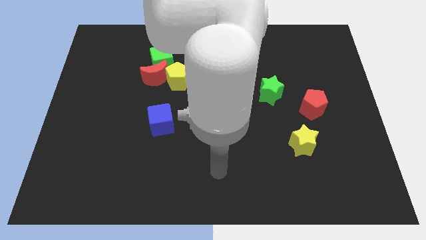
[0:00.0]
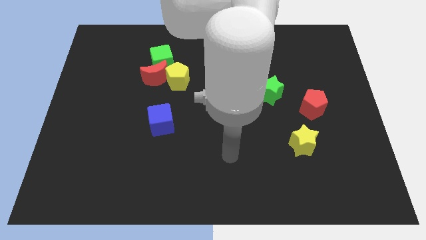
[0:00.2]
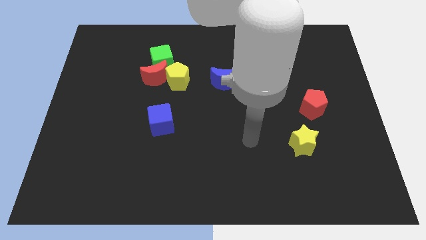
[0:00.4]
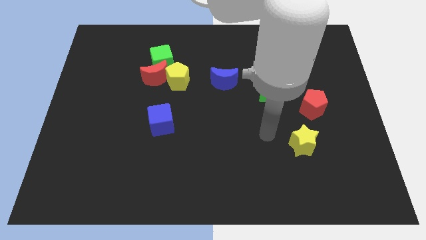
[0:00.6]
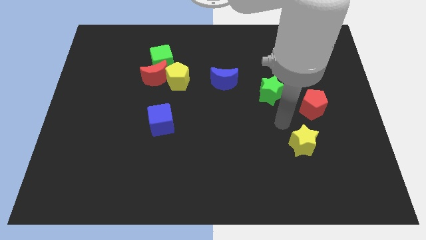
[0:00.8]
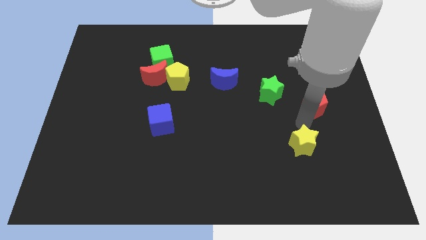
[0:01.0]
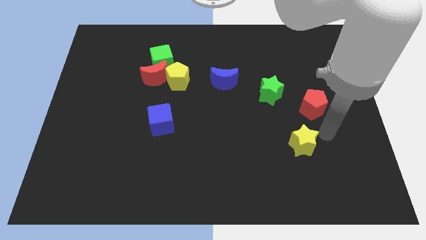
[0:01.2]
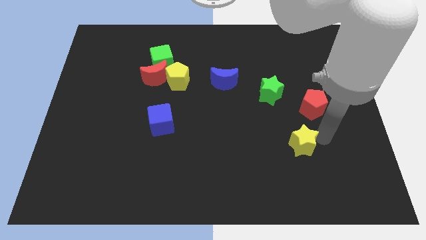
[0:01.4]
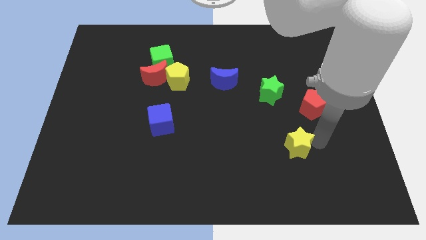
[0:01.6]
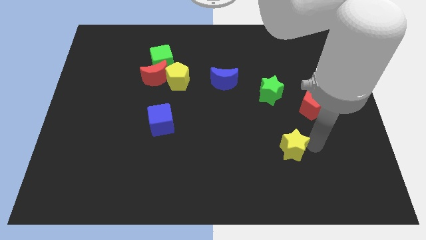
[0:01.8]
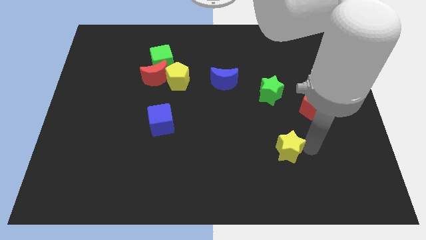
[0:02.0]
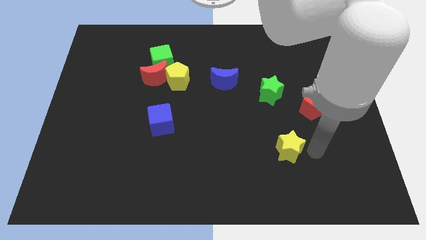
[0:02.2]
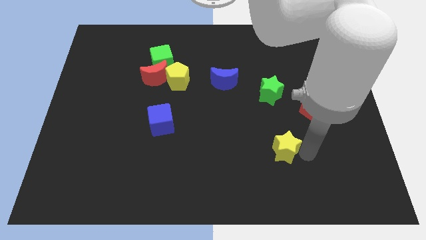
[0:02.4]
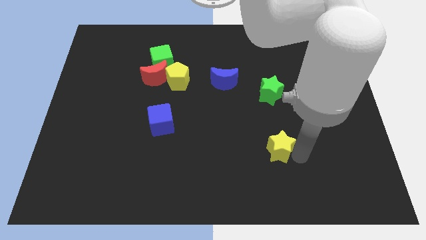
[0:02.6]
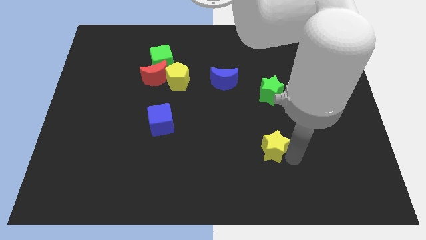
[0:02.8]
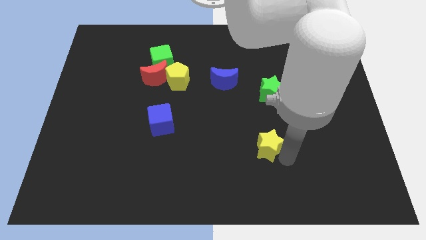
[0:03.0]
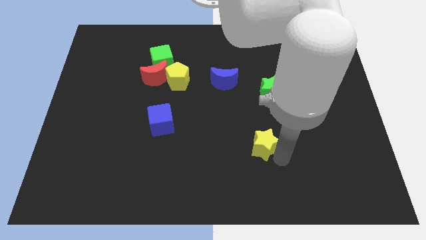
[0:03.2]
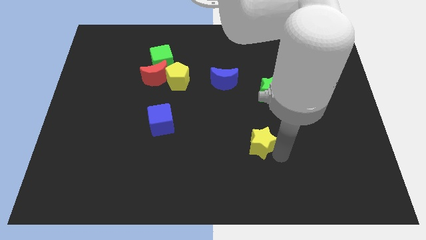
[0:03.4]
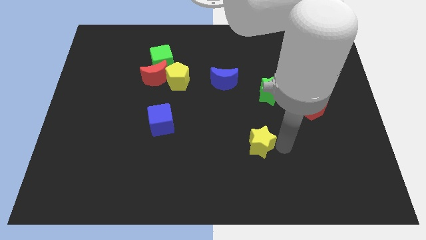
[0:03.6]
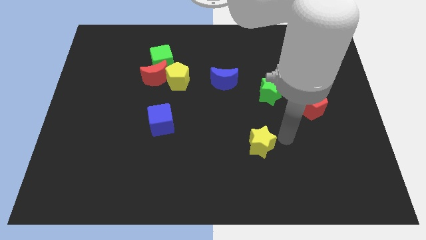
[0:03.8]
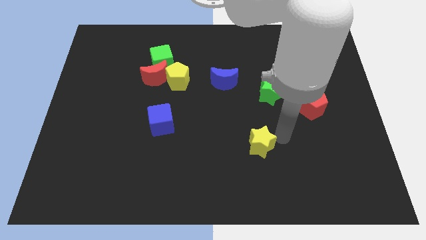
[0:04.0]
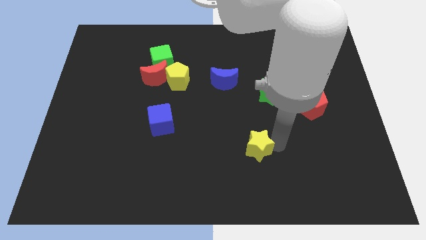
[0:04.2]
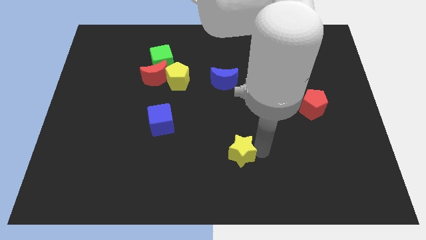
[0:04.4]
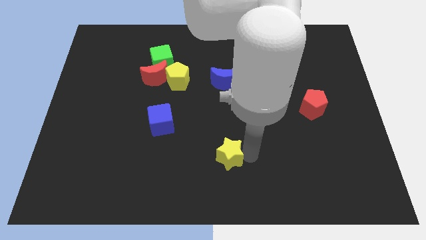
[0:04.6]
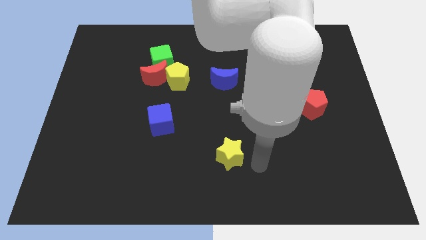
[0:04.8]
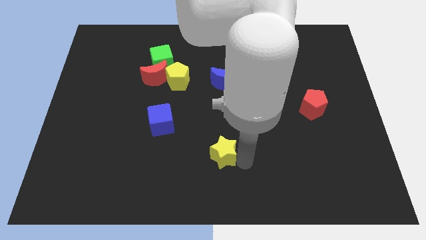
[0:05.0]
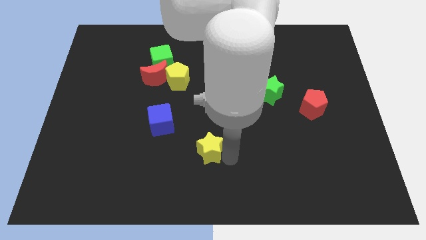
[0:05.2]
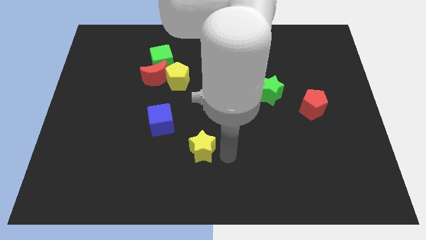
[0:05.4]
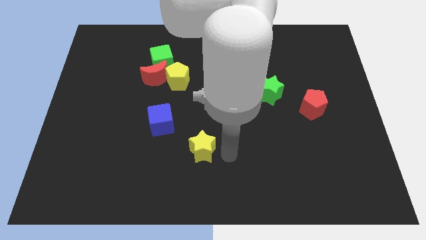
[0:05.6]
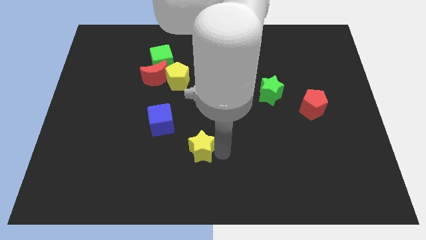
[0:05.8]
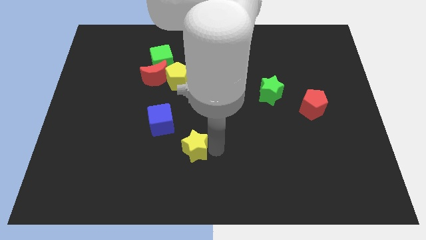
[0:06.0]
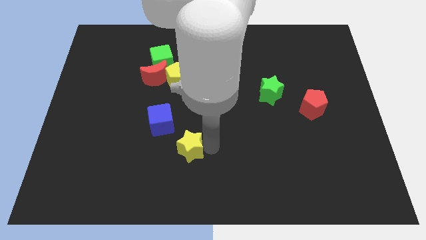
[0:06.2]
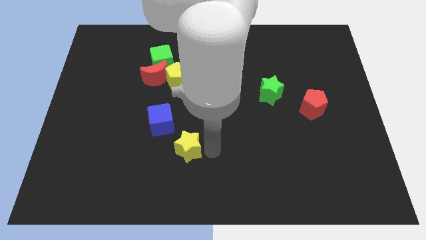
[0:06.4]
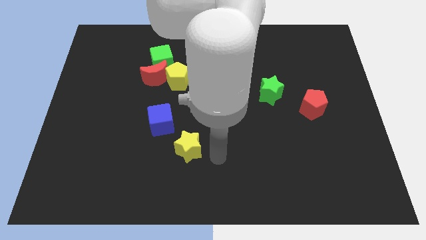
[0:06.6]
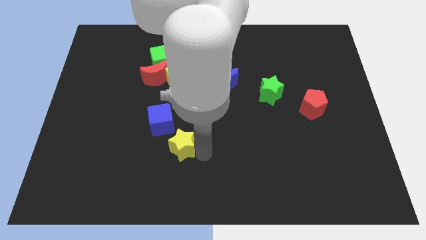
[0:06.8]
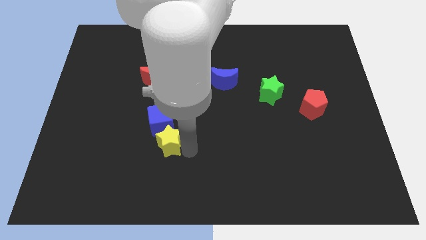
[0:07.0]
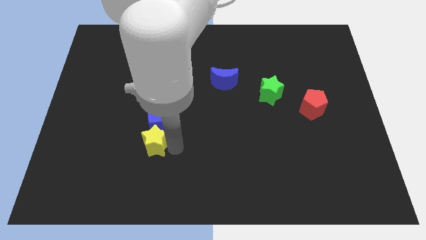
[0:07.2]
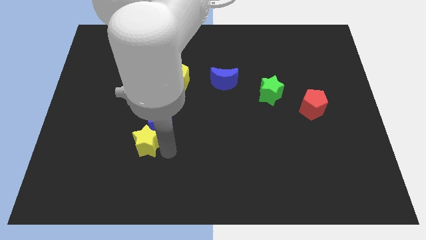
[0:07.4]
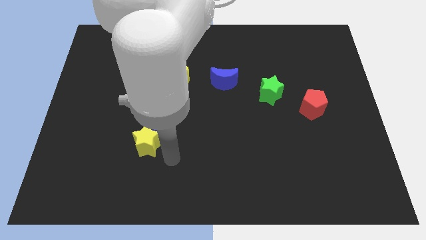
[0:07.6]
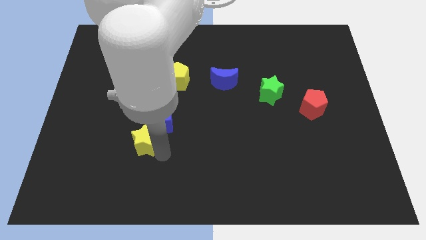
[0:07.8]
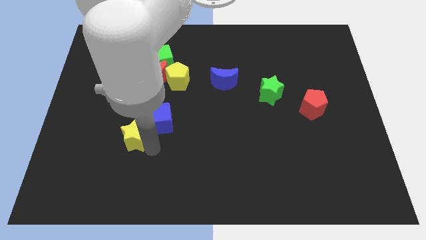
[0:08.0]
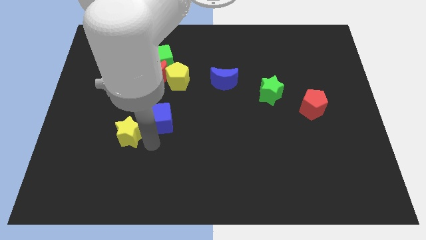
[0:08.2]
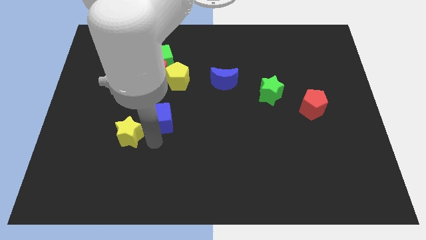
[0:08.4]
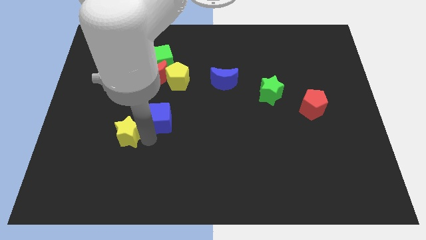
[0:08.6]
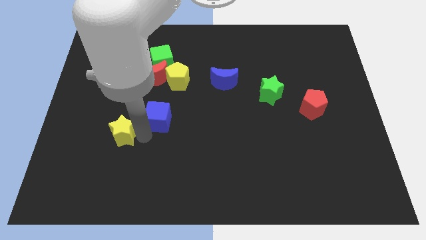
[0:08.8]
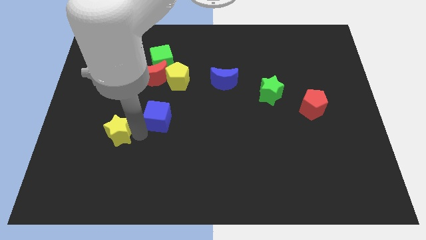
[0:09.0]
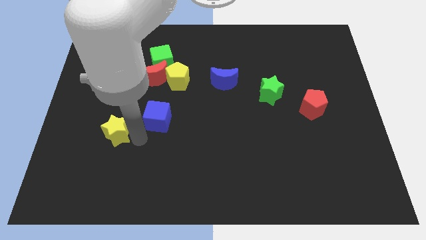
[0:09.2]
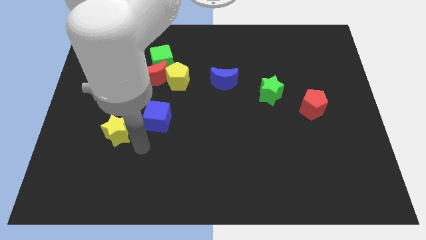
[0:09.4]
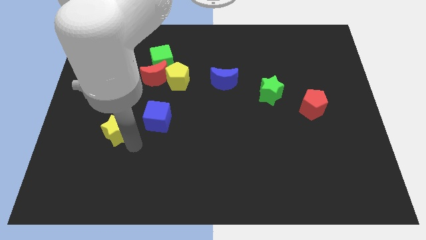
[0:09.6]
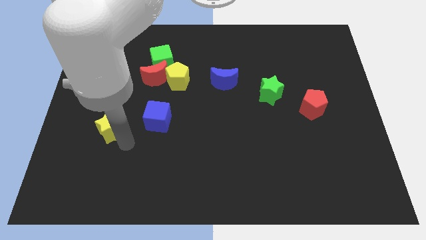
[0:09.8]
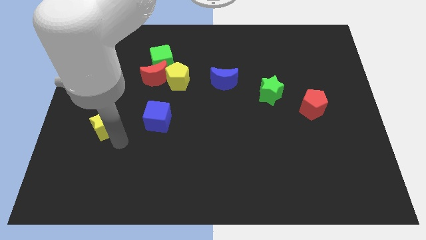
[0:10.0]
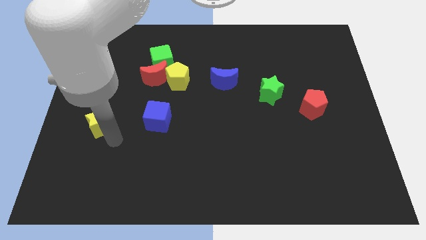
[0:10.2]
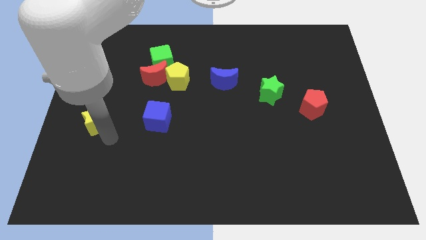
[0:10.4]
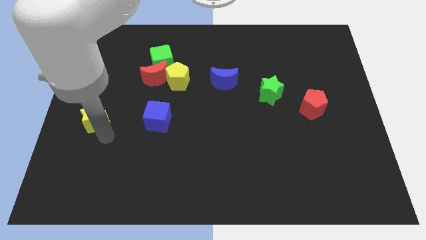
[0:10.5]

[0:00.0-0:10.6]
slide the yellow star to the left side of the board

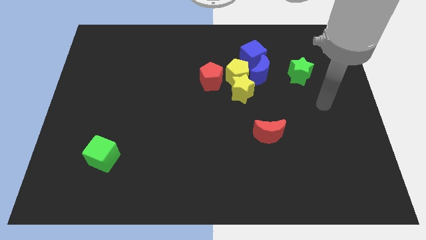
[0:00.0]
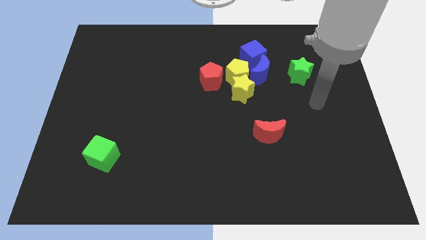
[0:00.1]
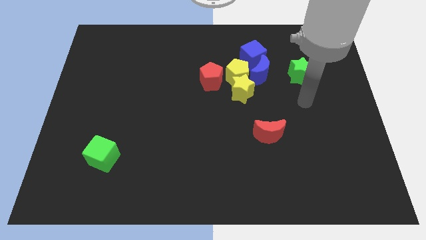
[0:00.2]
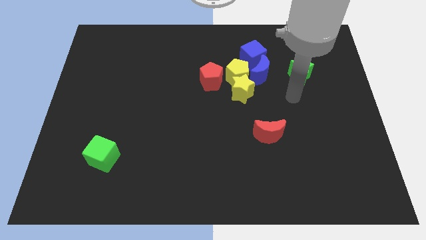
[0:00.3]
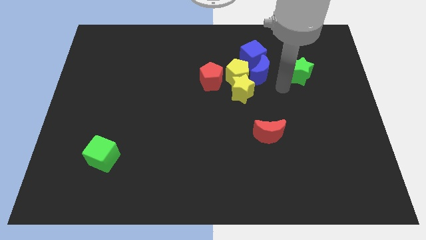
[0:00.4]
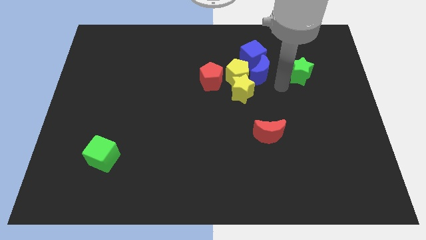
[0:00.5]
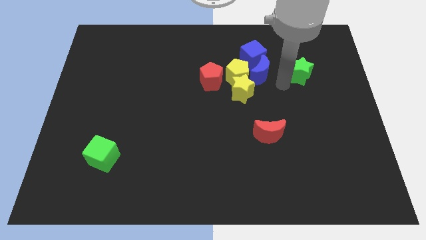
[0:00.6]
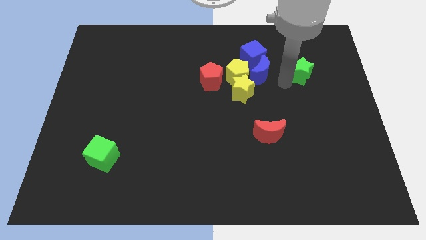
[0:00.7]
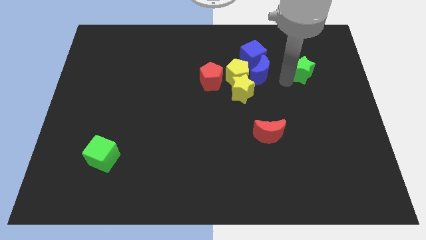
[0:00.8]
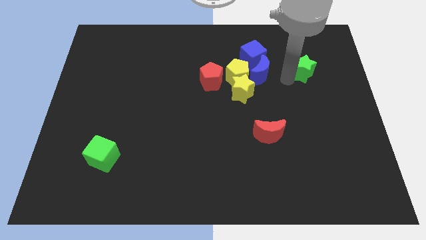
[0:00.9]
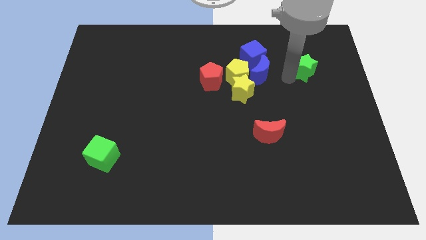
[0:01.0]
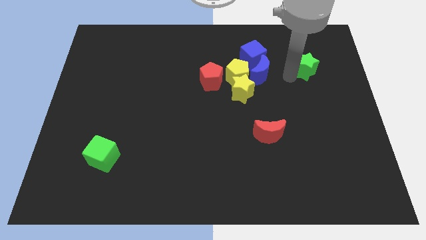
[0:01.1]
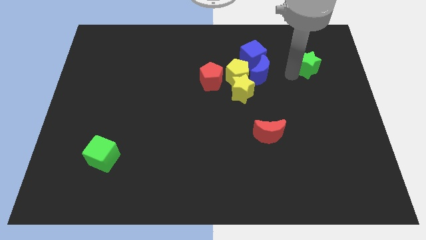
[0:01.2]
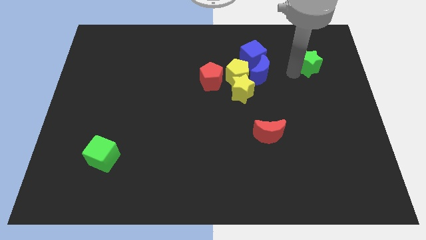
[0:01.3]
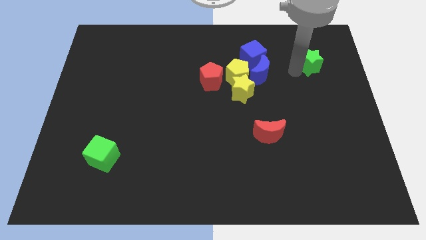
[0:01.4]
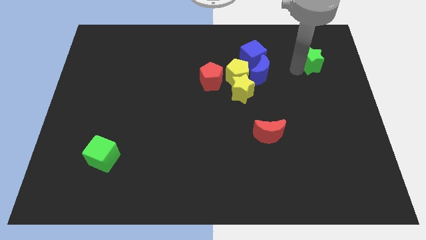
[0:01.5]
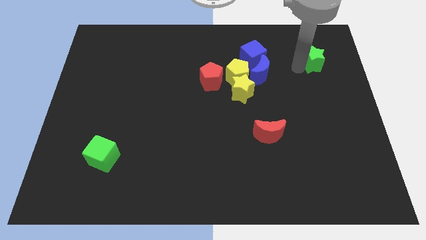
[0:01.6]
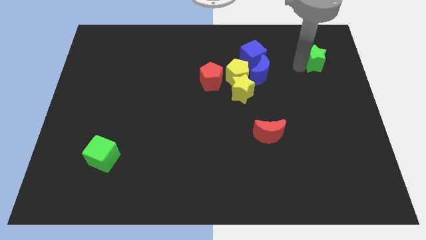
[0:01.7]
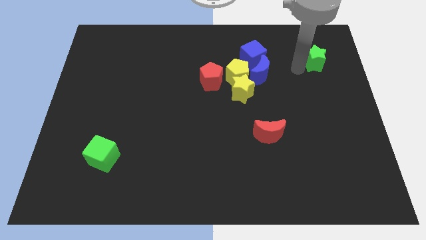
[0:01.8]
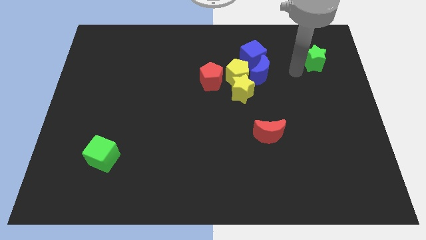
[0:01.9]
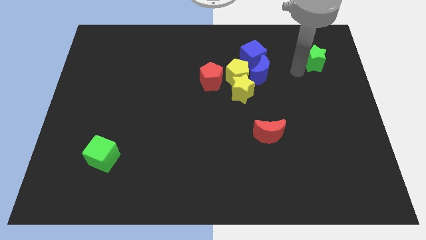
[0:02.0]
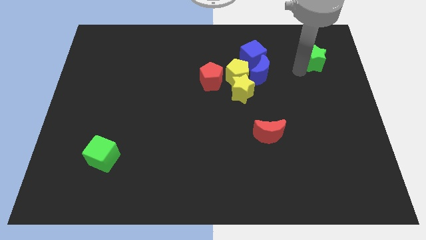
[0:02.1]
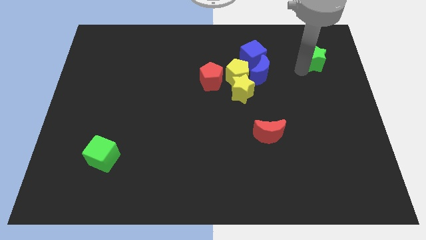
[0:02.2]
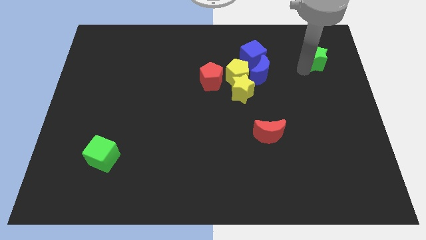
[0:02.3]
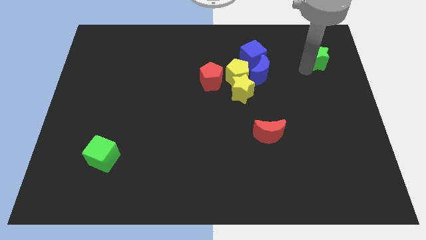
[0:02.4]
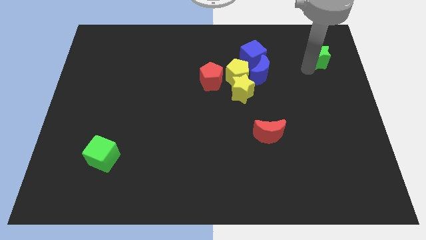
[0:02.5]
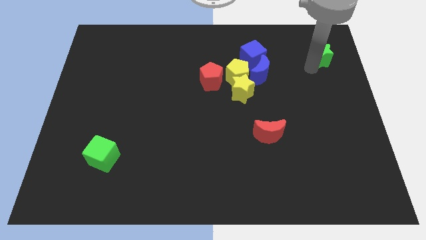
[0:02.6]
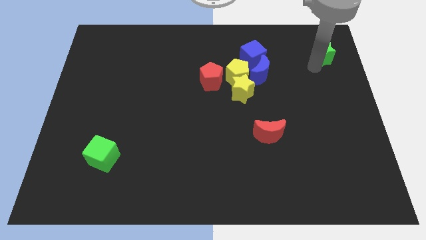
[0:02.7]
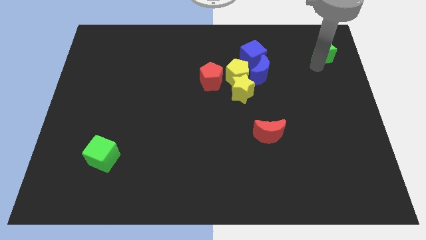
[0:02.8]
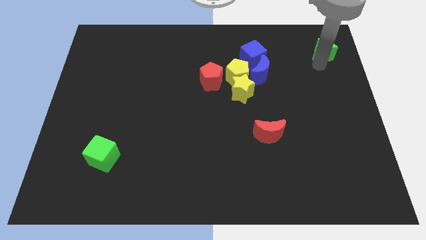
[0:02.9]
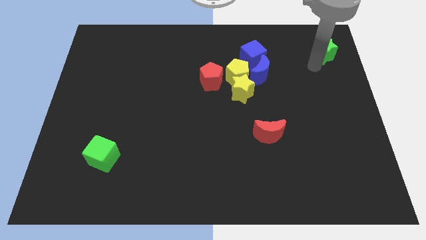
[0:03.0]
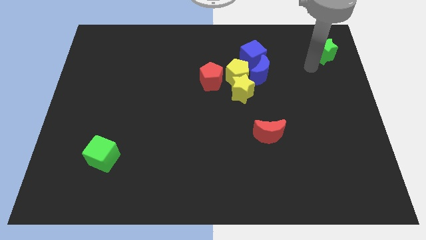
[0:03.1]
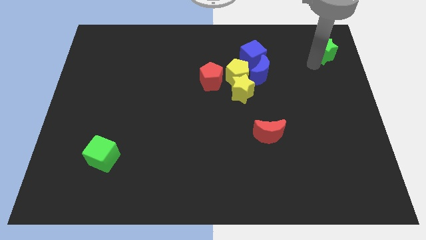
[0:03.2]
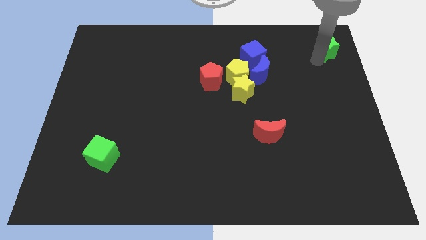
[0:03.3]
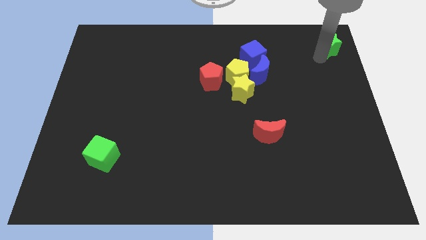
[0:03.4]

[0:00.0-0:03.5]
slide the green star to the upper right corner
